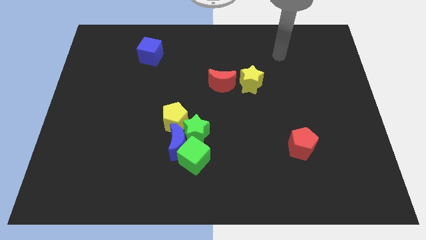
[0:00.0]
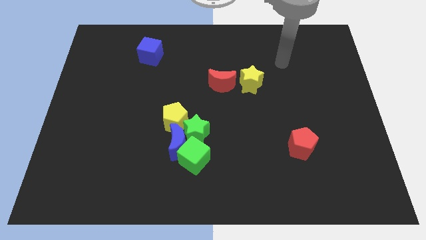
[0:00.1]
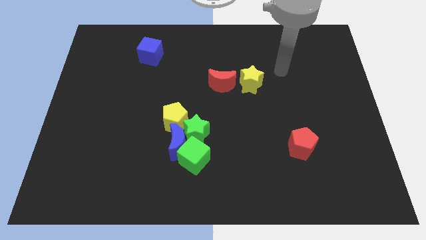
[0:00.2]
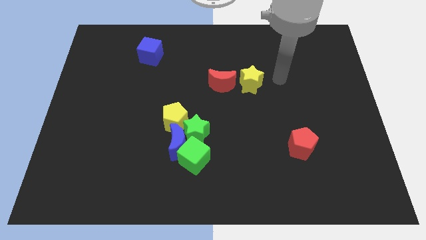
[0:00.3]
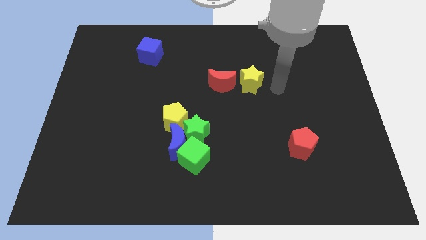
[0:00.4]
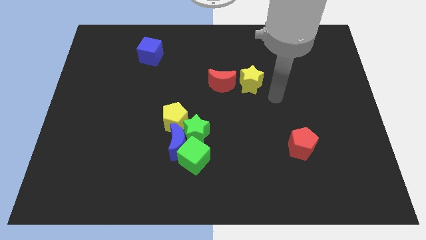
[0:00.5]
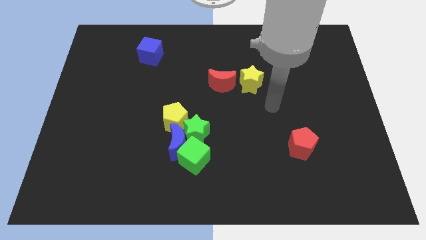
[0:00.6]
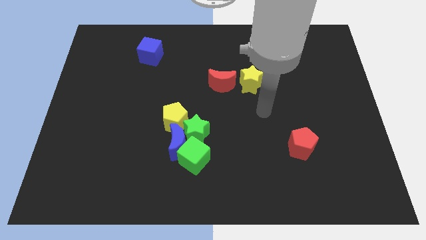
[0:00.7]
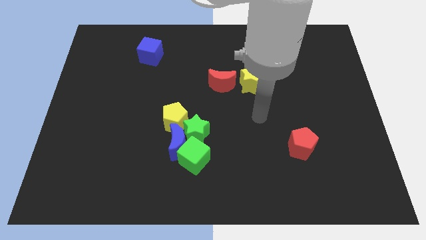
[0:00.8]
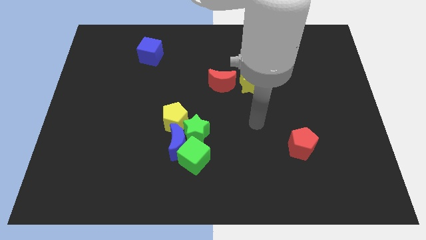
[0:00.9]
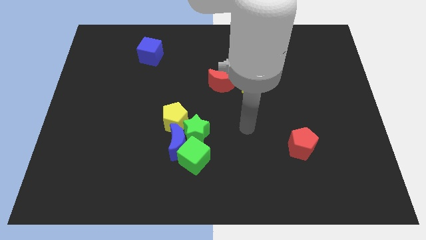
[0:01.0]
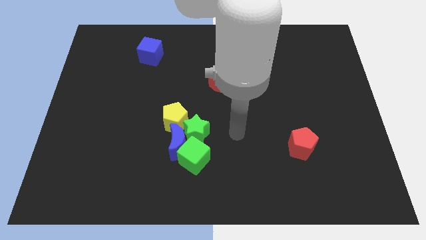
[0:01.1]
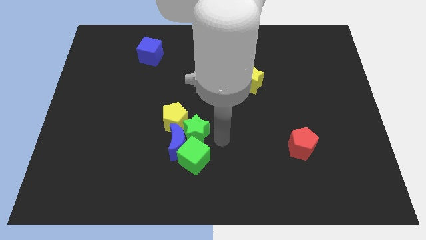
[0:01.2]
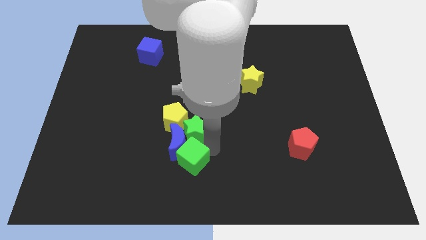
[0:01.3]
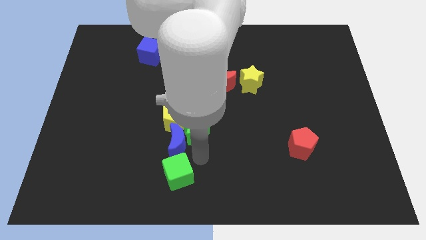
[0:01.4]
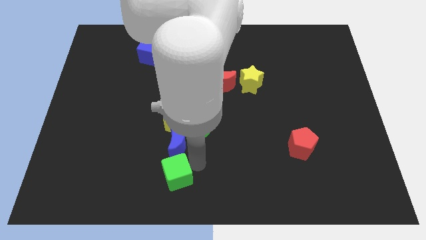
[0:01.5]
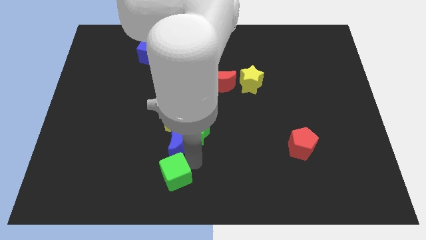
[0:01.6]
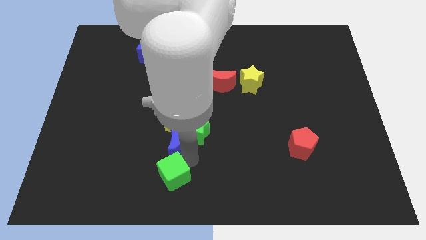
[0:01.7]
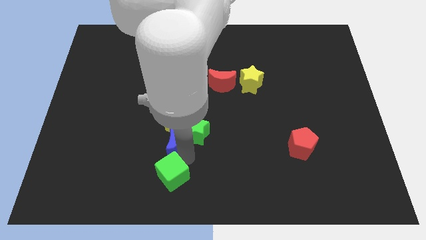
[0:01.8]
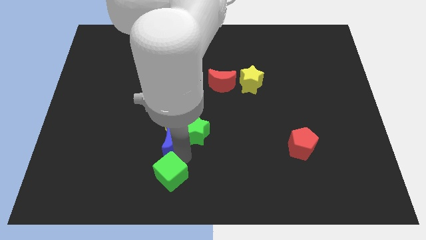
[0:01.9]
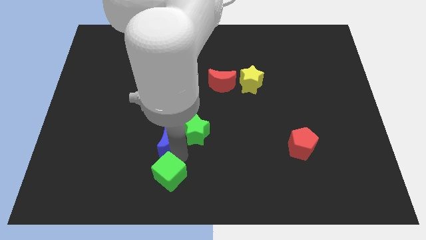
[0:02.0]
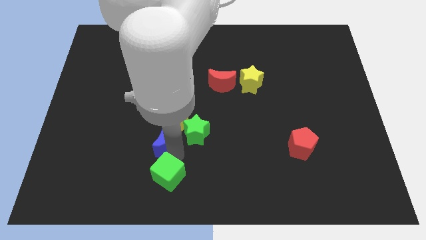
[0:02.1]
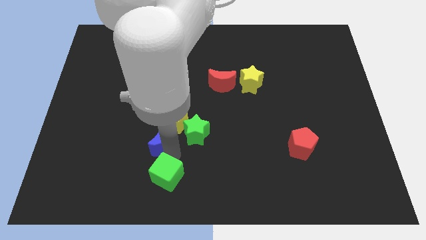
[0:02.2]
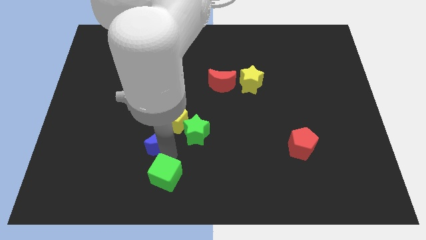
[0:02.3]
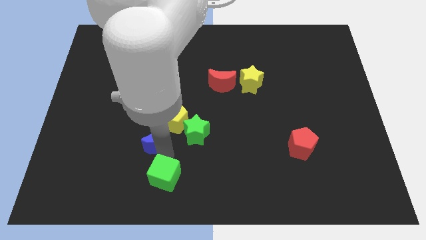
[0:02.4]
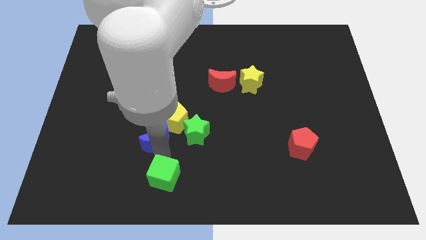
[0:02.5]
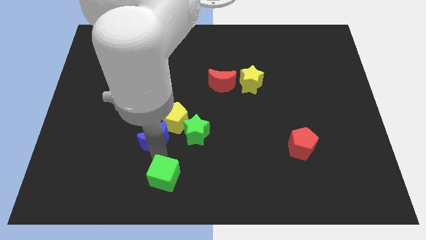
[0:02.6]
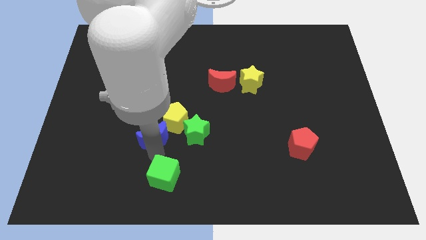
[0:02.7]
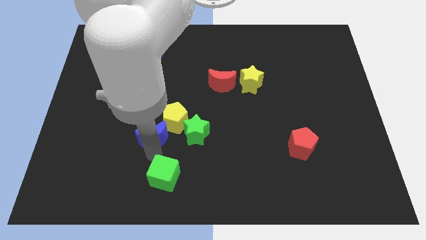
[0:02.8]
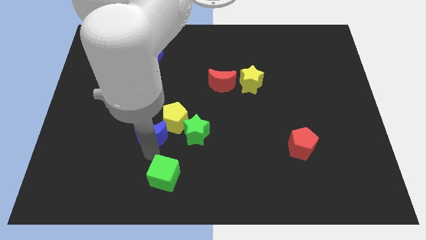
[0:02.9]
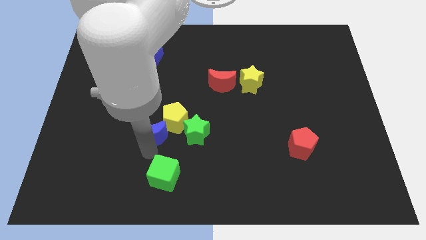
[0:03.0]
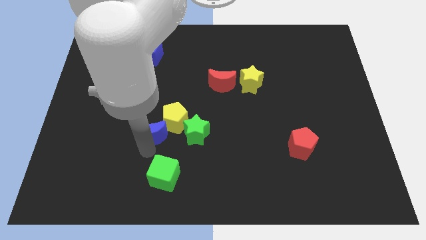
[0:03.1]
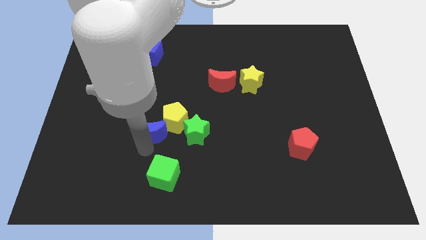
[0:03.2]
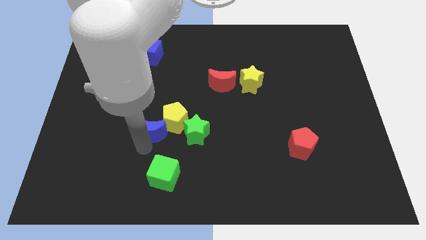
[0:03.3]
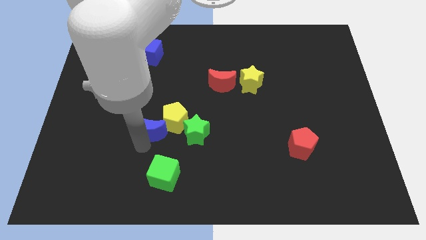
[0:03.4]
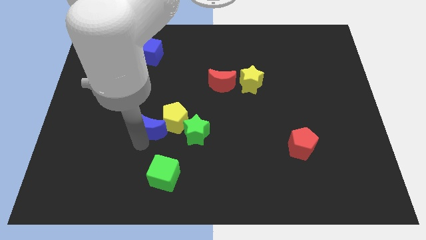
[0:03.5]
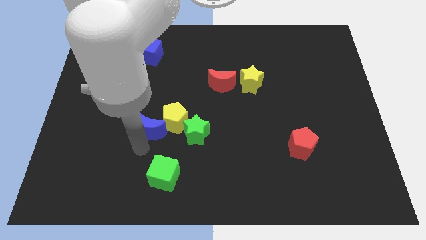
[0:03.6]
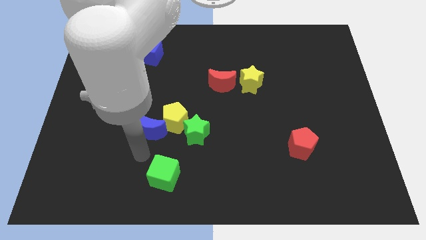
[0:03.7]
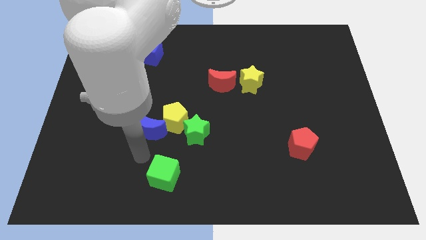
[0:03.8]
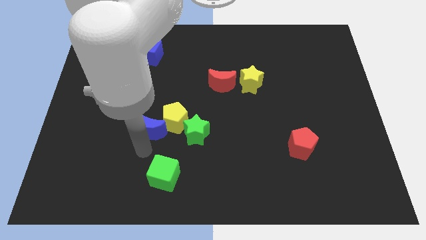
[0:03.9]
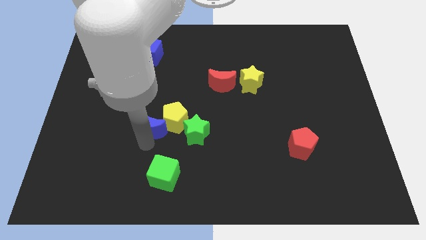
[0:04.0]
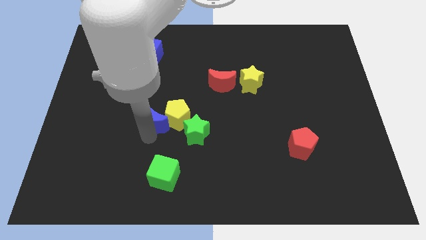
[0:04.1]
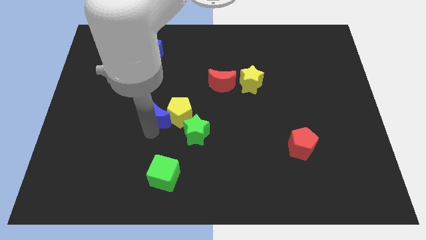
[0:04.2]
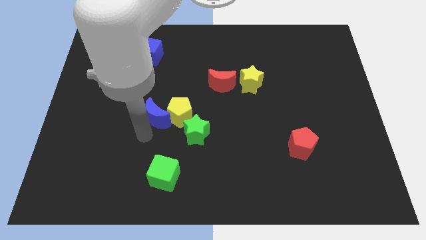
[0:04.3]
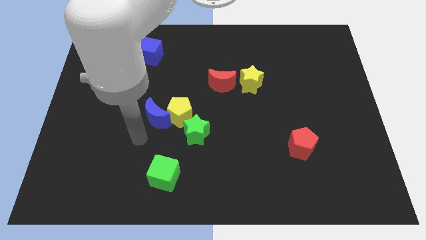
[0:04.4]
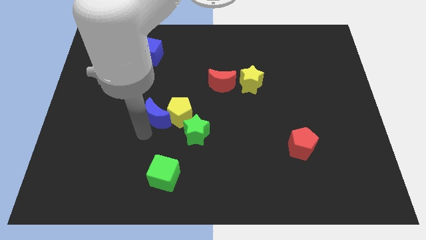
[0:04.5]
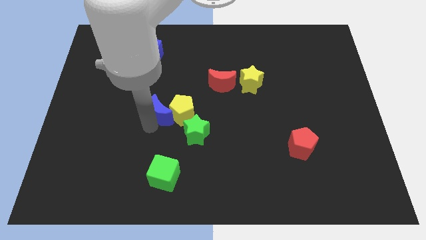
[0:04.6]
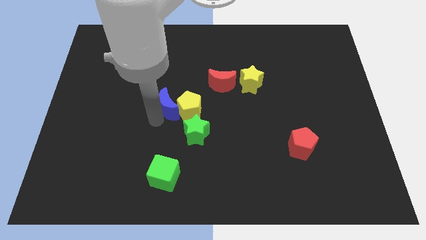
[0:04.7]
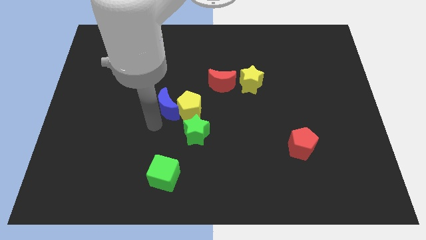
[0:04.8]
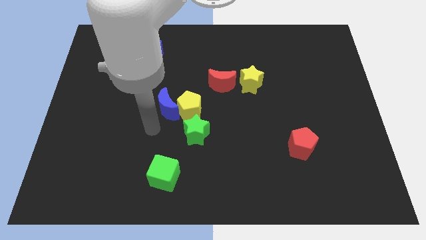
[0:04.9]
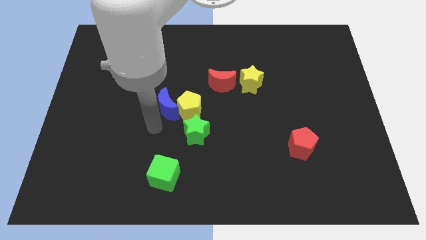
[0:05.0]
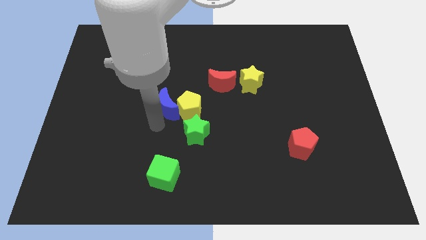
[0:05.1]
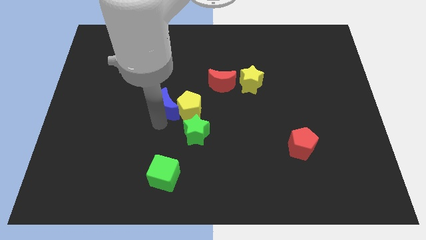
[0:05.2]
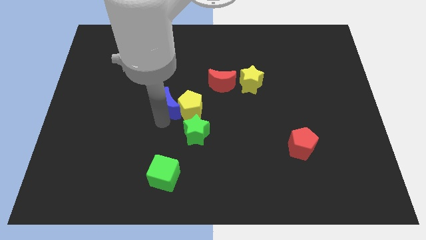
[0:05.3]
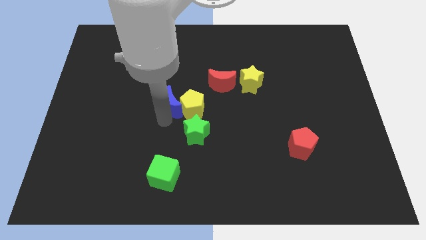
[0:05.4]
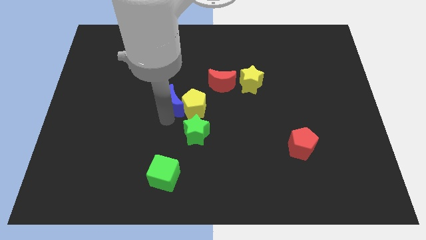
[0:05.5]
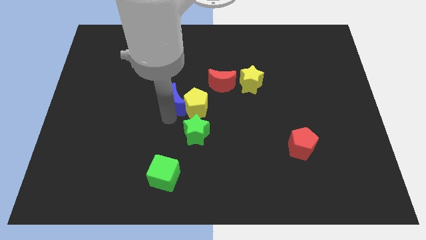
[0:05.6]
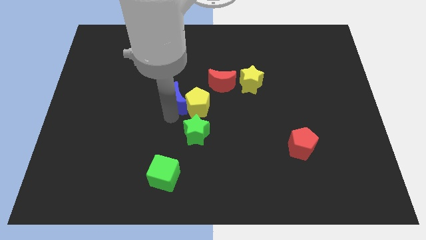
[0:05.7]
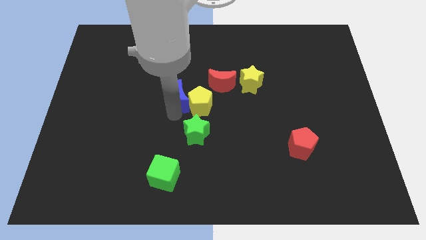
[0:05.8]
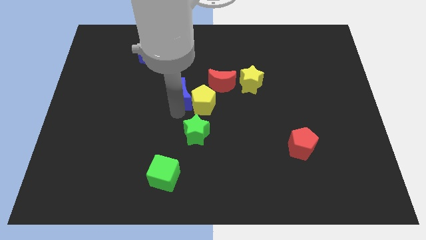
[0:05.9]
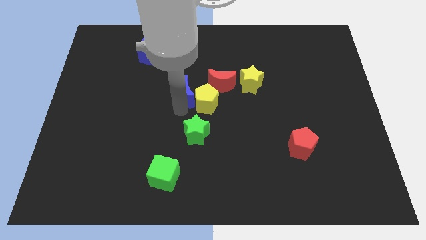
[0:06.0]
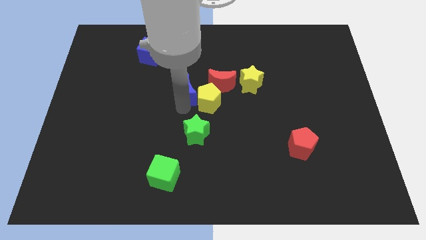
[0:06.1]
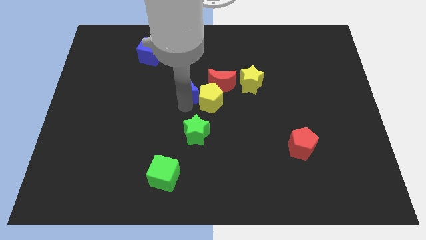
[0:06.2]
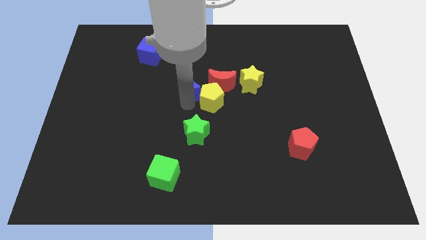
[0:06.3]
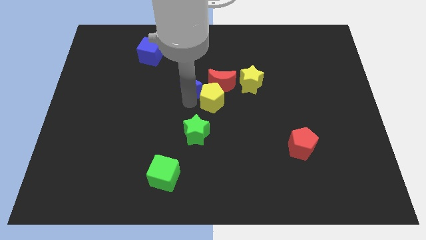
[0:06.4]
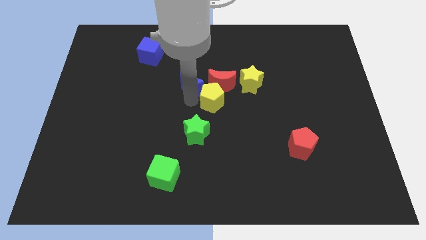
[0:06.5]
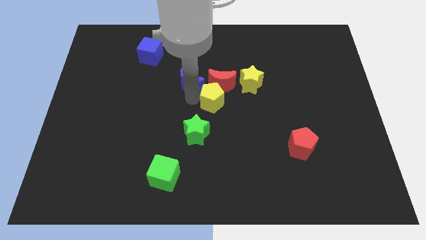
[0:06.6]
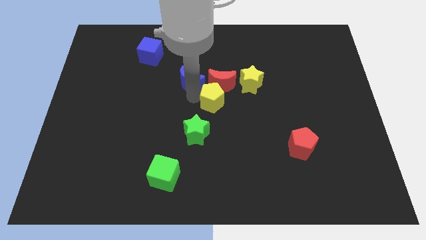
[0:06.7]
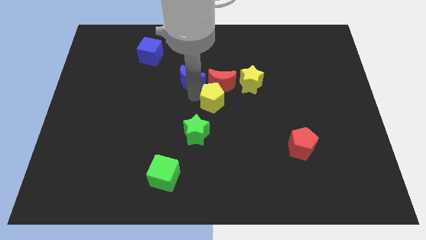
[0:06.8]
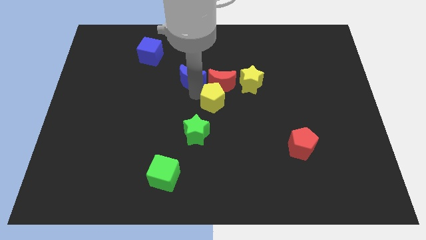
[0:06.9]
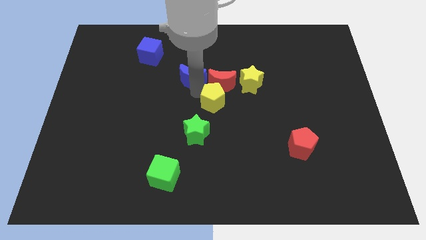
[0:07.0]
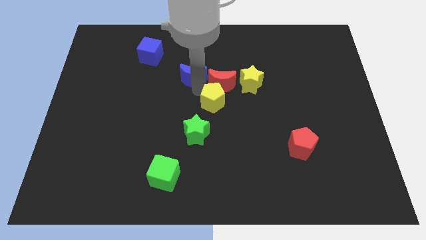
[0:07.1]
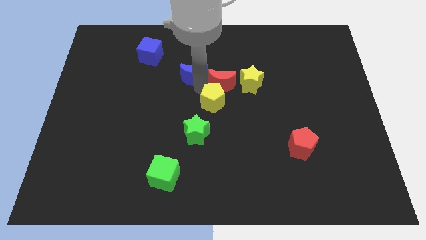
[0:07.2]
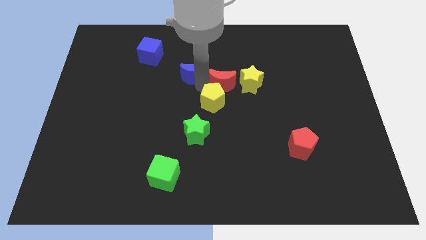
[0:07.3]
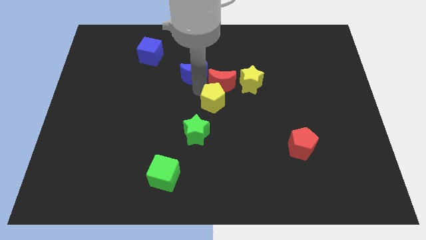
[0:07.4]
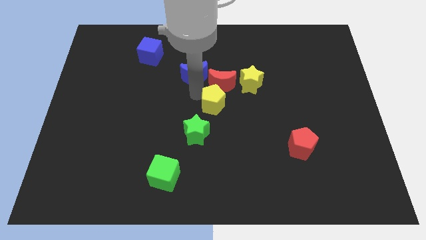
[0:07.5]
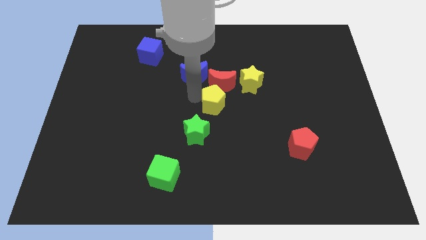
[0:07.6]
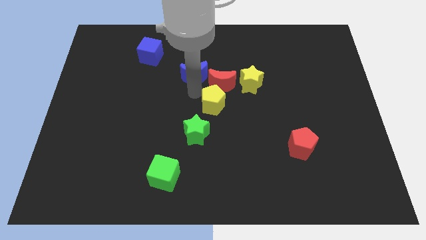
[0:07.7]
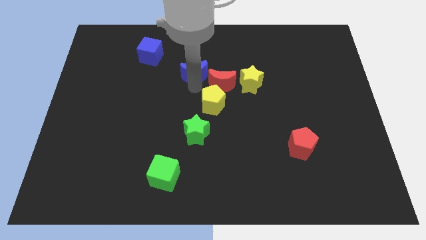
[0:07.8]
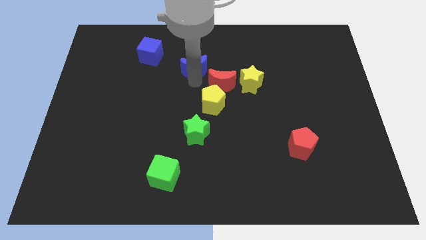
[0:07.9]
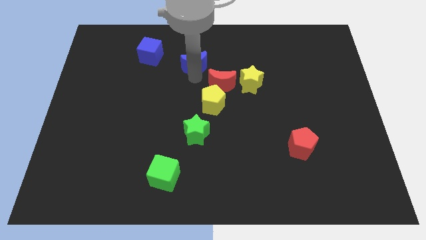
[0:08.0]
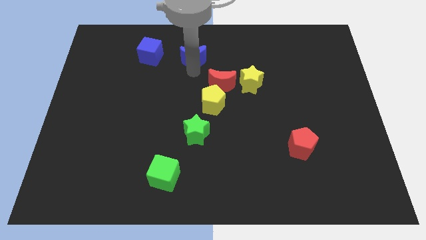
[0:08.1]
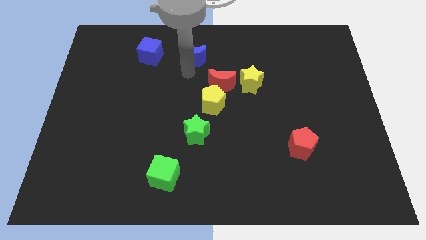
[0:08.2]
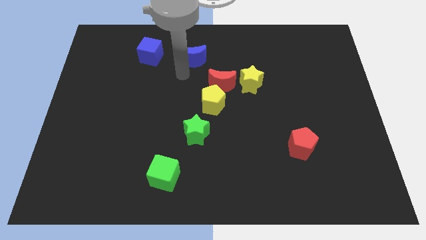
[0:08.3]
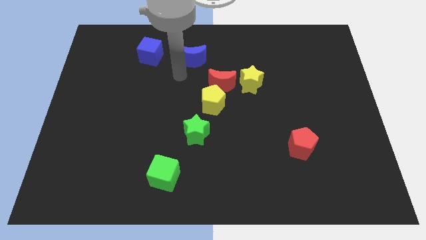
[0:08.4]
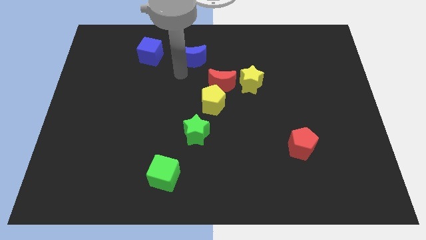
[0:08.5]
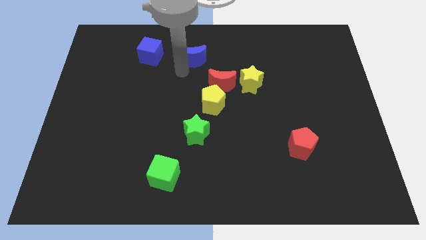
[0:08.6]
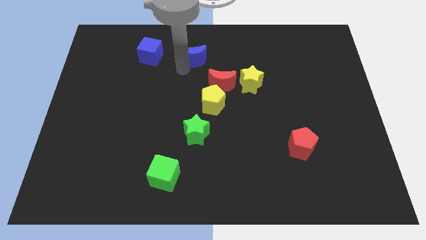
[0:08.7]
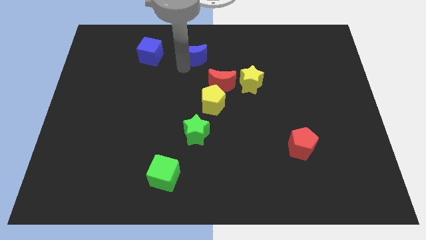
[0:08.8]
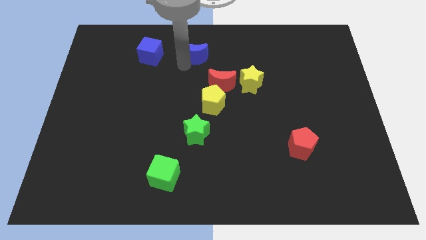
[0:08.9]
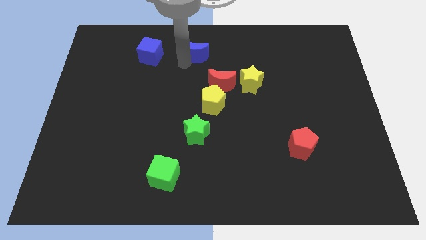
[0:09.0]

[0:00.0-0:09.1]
slide the blue moon to the top
